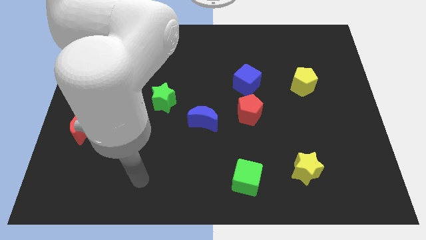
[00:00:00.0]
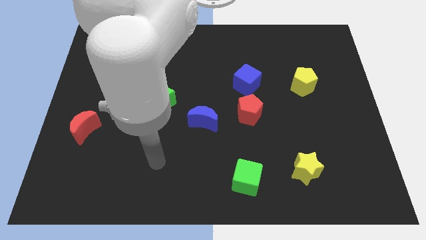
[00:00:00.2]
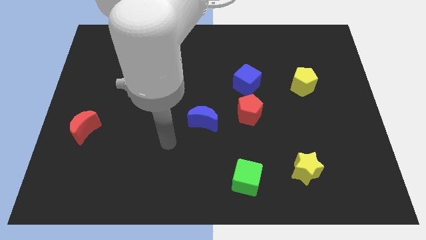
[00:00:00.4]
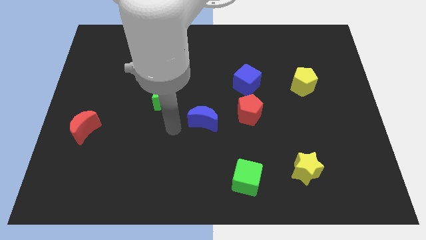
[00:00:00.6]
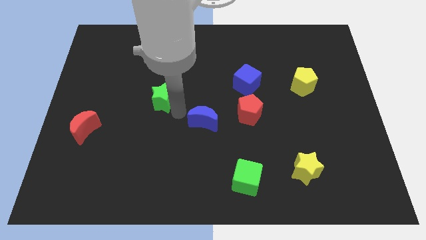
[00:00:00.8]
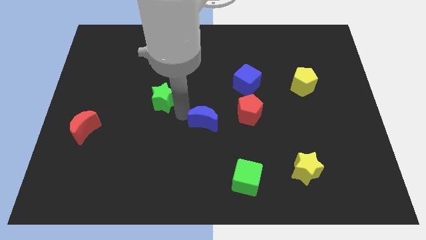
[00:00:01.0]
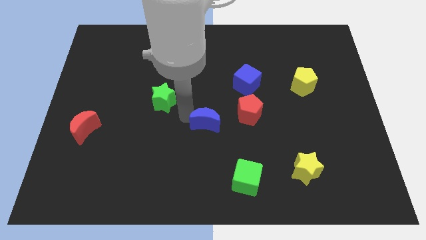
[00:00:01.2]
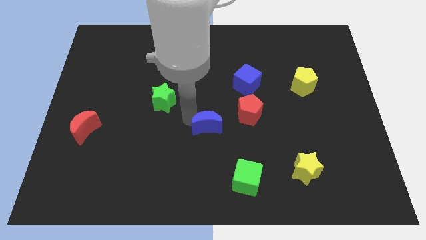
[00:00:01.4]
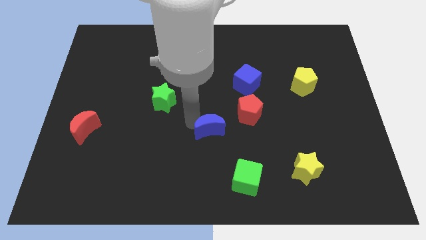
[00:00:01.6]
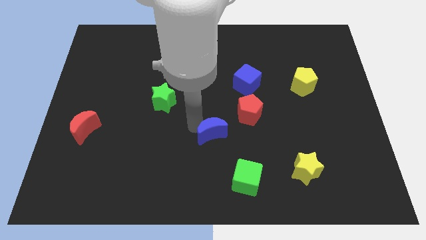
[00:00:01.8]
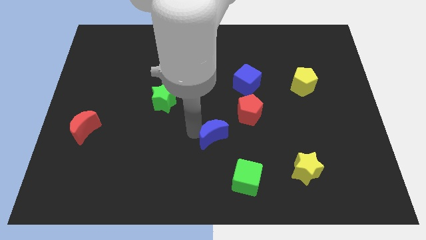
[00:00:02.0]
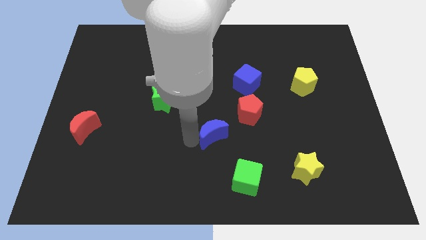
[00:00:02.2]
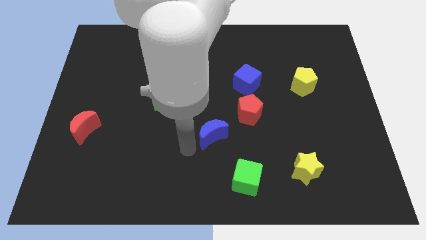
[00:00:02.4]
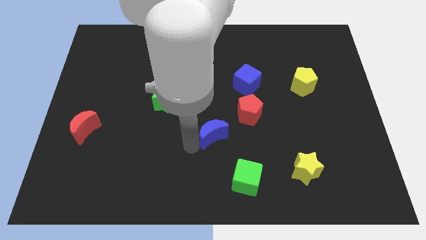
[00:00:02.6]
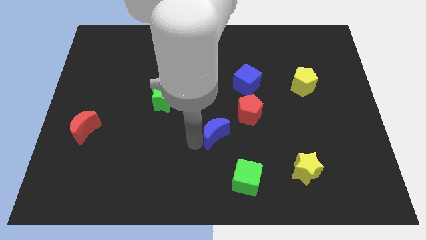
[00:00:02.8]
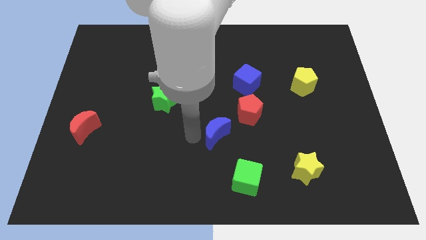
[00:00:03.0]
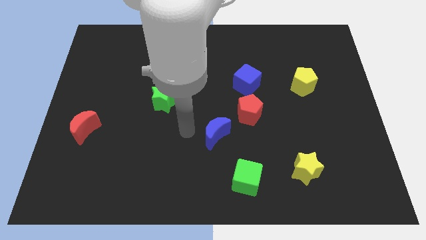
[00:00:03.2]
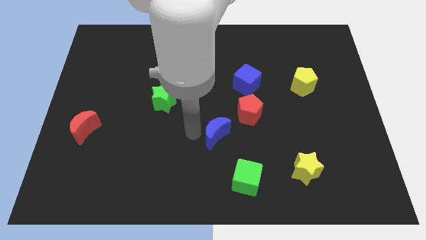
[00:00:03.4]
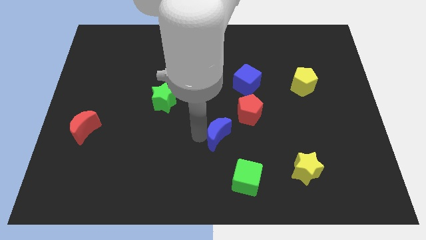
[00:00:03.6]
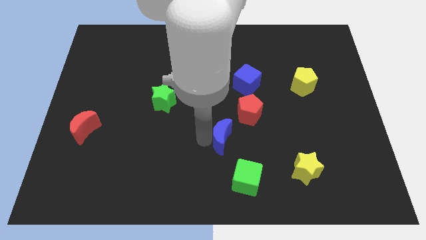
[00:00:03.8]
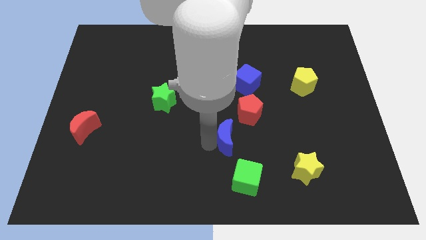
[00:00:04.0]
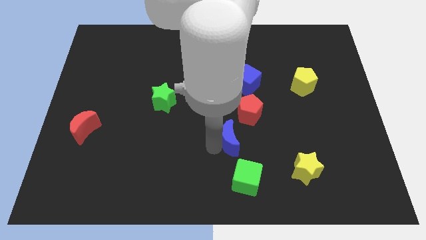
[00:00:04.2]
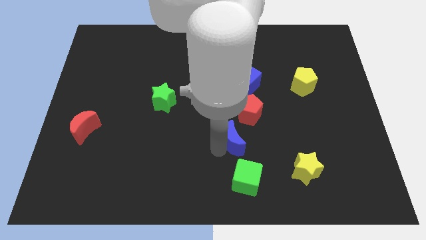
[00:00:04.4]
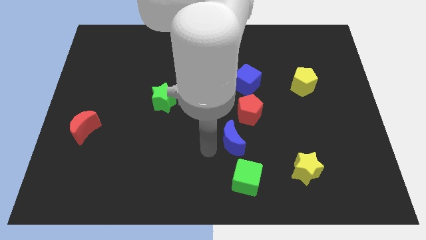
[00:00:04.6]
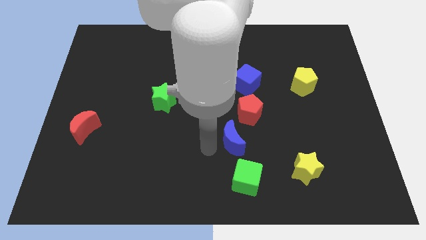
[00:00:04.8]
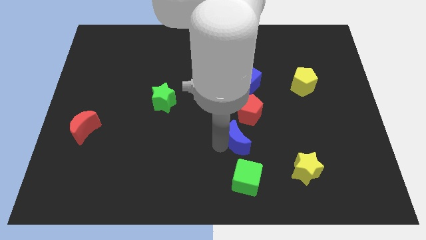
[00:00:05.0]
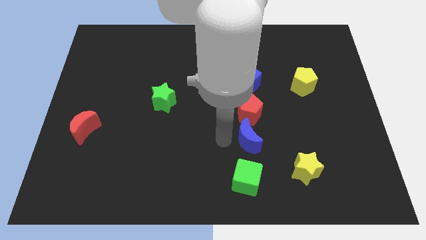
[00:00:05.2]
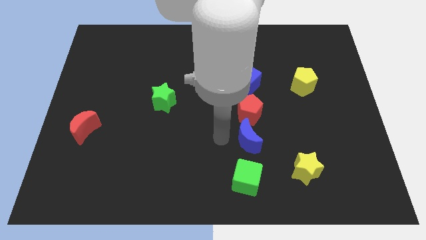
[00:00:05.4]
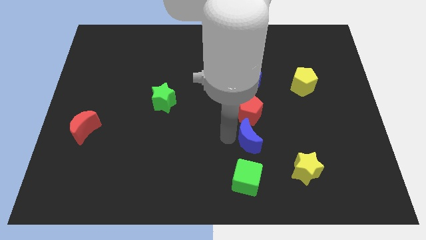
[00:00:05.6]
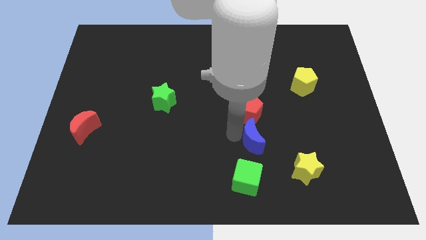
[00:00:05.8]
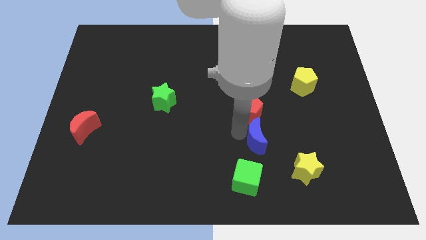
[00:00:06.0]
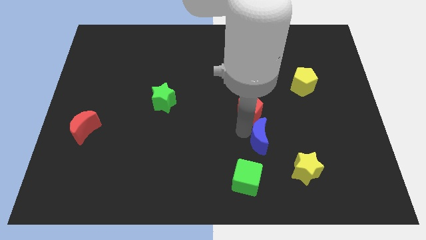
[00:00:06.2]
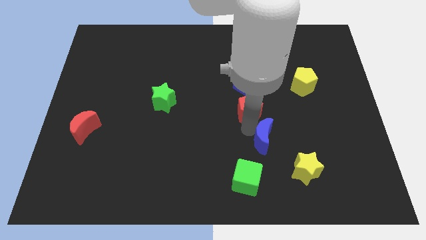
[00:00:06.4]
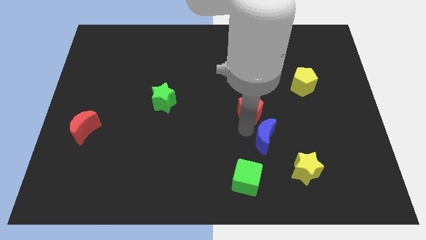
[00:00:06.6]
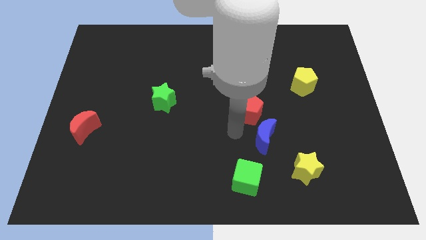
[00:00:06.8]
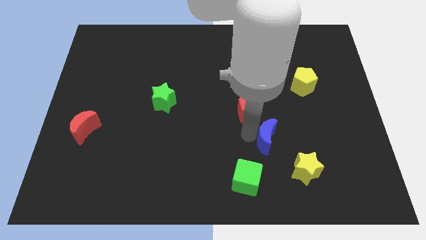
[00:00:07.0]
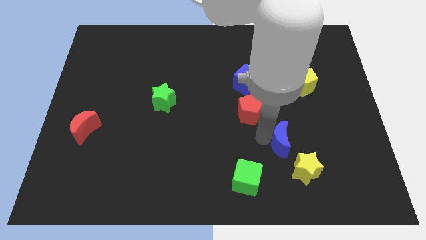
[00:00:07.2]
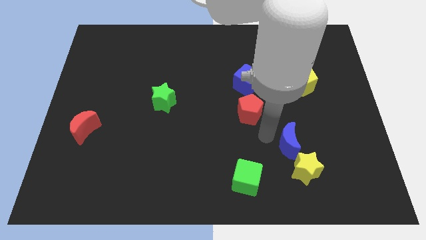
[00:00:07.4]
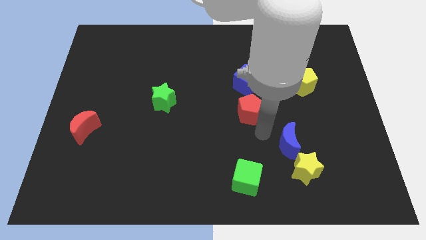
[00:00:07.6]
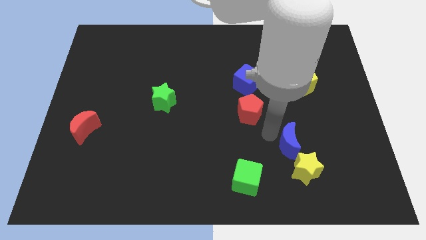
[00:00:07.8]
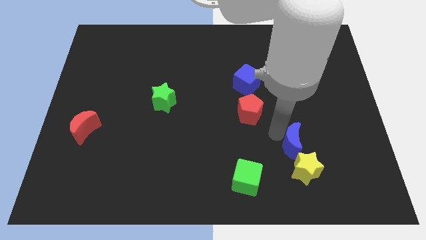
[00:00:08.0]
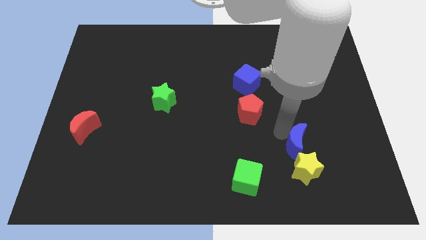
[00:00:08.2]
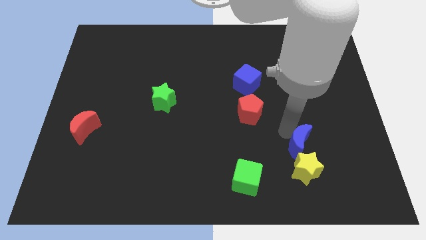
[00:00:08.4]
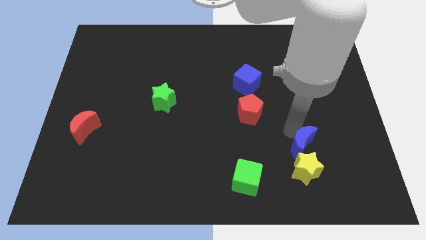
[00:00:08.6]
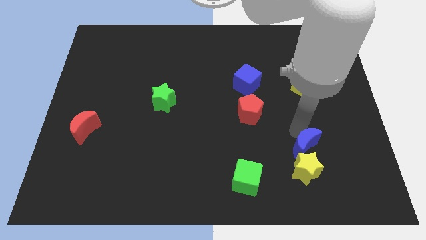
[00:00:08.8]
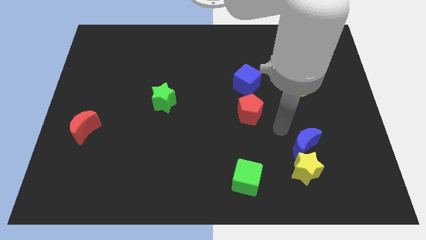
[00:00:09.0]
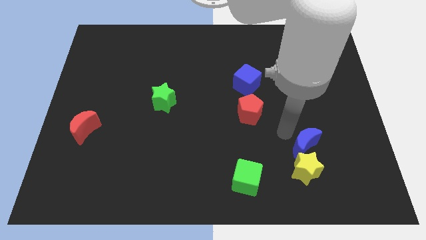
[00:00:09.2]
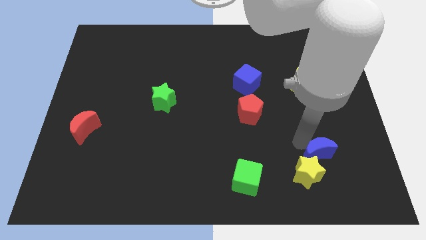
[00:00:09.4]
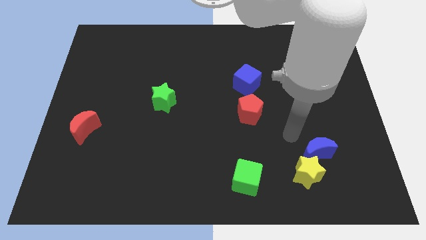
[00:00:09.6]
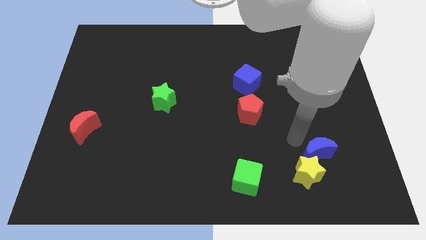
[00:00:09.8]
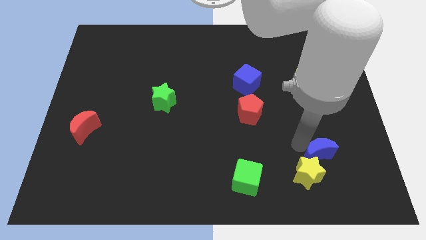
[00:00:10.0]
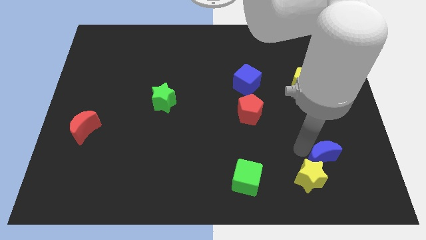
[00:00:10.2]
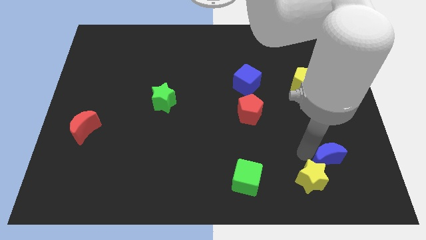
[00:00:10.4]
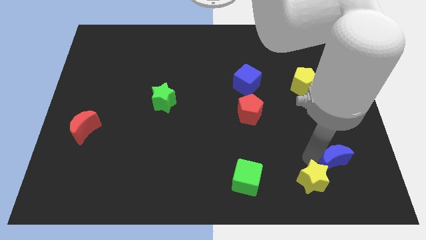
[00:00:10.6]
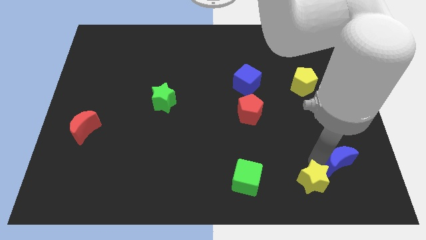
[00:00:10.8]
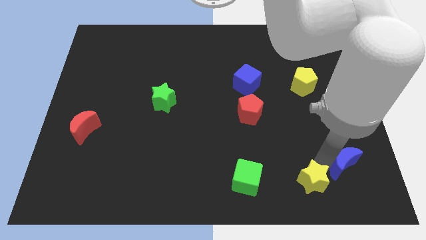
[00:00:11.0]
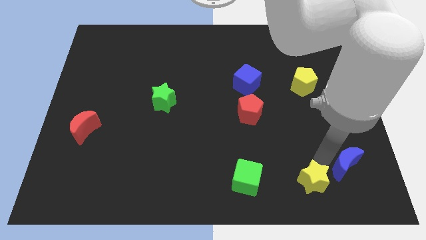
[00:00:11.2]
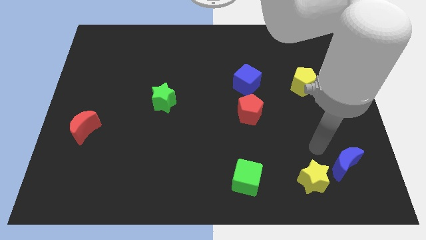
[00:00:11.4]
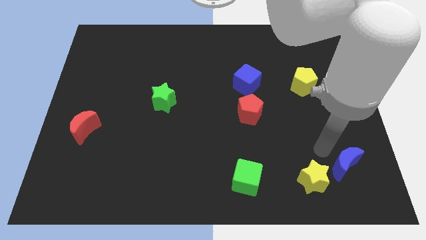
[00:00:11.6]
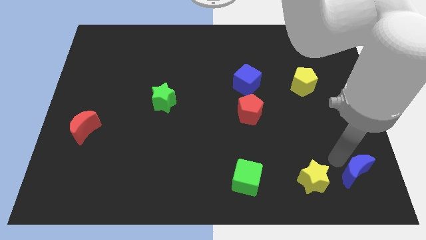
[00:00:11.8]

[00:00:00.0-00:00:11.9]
move the blue moon to the bottom right of the board

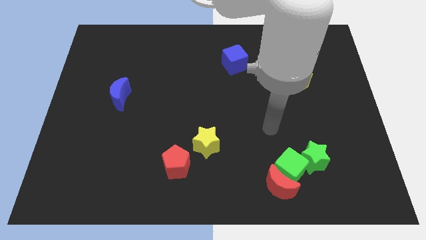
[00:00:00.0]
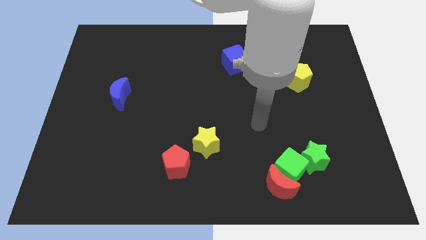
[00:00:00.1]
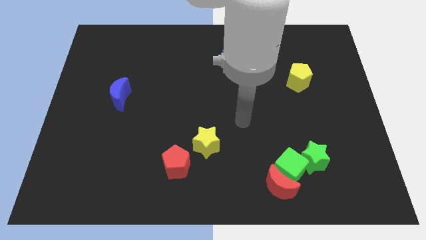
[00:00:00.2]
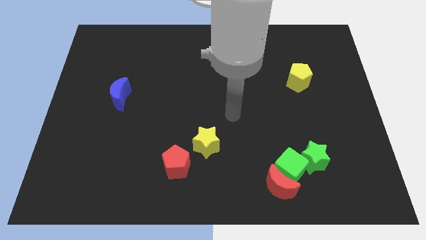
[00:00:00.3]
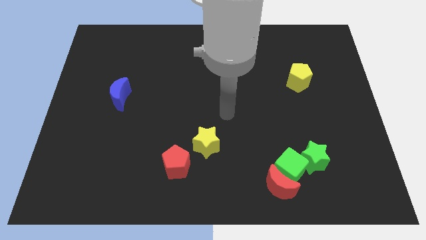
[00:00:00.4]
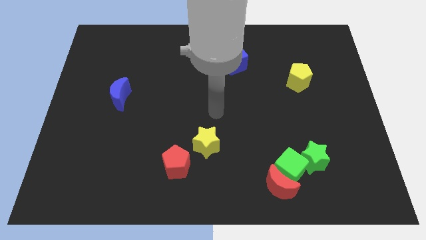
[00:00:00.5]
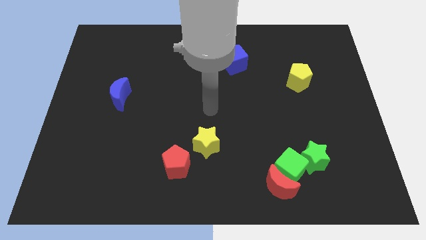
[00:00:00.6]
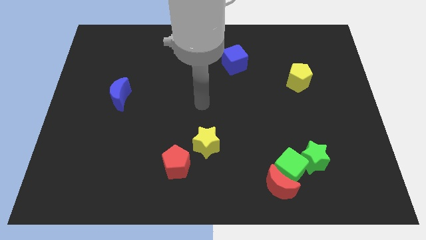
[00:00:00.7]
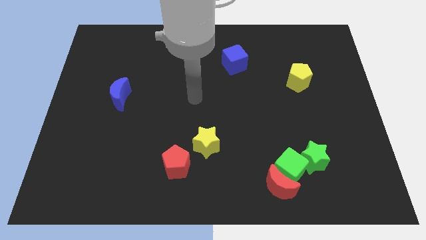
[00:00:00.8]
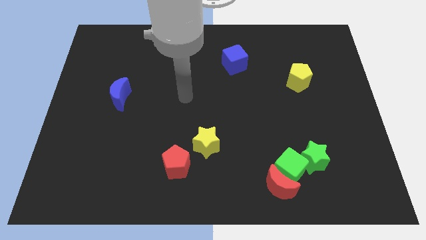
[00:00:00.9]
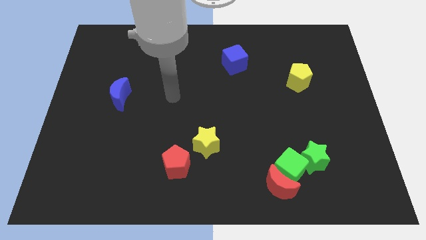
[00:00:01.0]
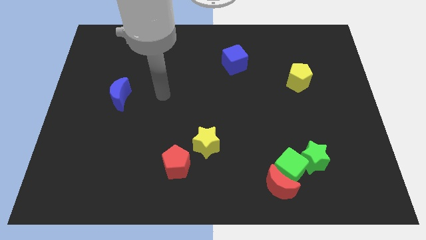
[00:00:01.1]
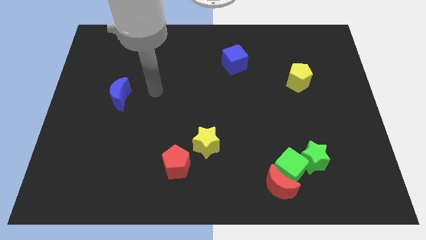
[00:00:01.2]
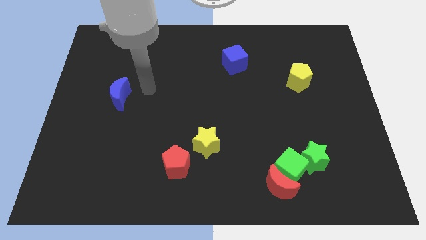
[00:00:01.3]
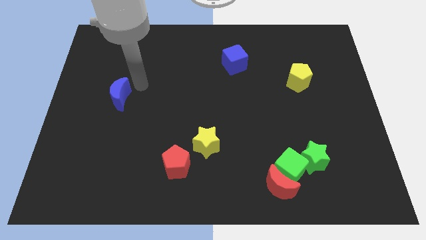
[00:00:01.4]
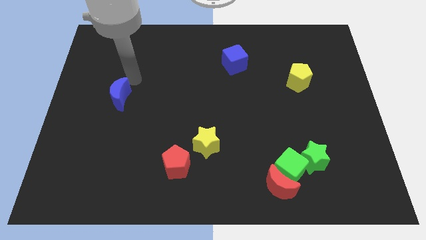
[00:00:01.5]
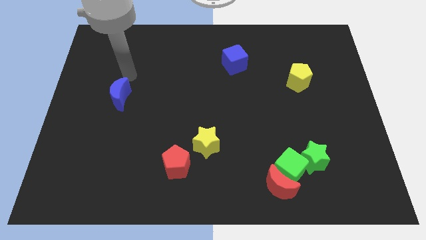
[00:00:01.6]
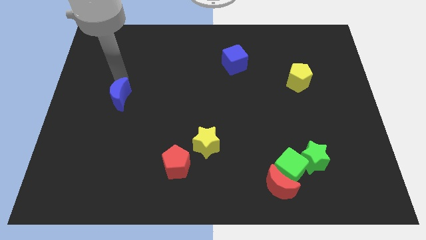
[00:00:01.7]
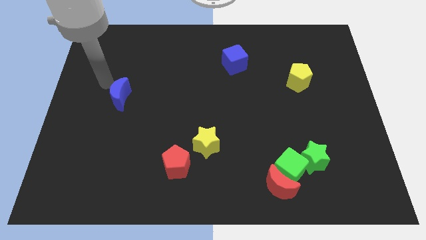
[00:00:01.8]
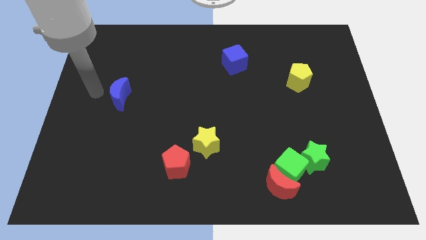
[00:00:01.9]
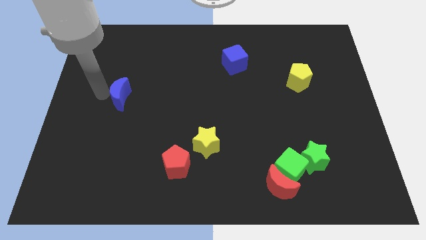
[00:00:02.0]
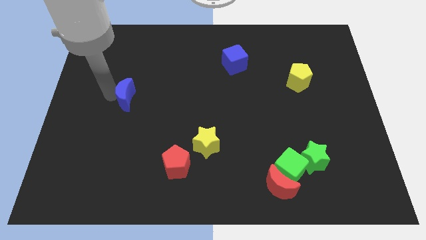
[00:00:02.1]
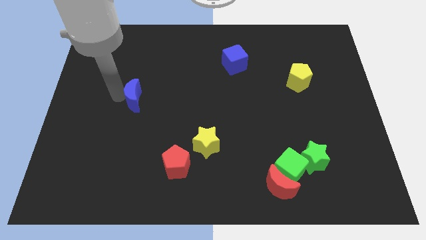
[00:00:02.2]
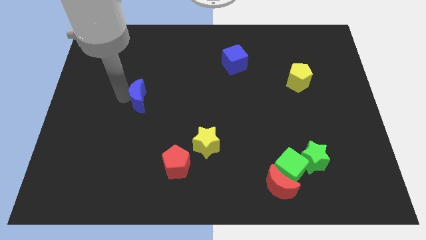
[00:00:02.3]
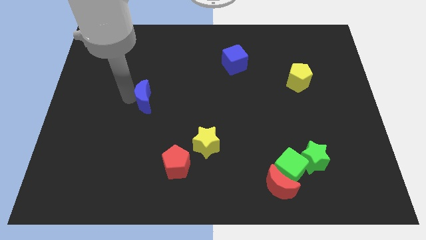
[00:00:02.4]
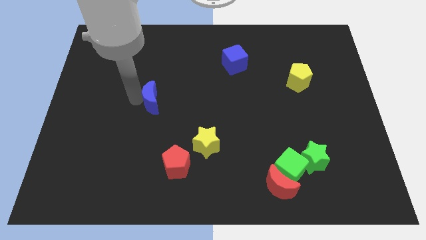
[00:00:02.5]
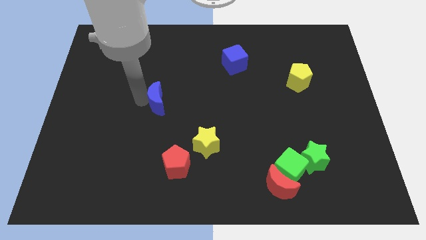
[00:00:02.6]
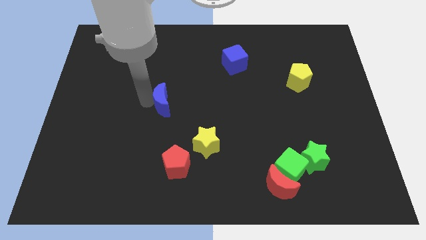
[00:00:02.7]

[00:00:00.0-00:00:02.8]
put the blue moon to the center
